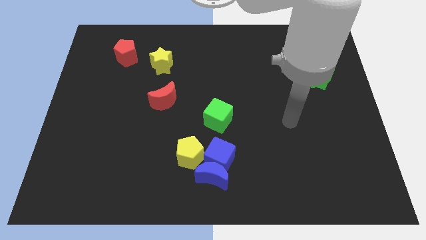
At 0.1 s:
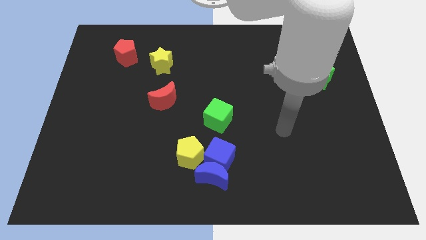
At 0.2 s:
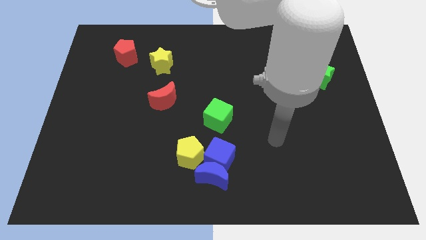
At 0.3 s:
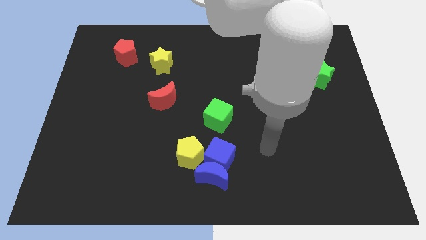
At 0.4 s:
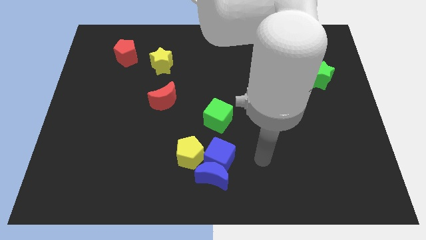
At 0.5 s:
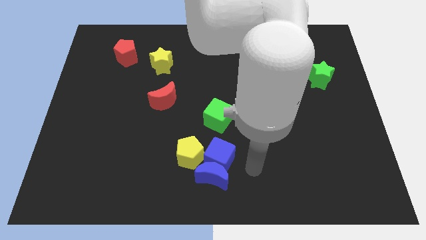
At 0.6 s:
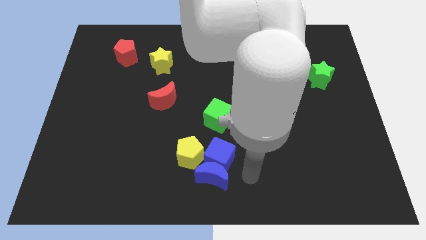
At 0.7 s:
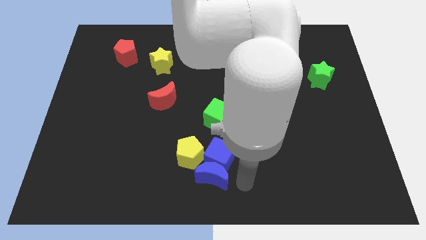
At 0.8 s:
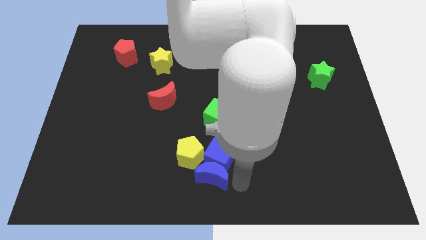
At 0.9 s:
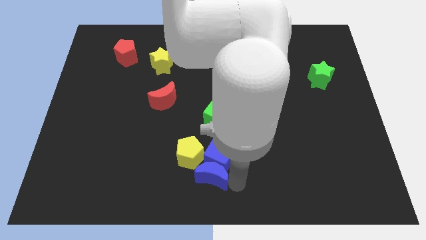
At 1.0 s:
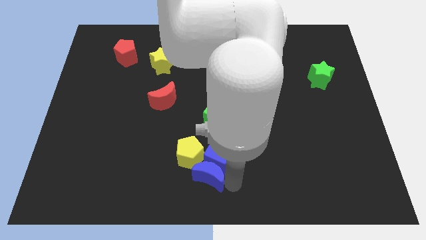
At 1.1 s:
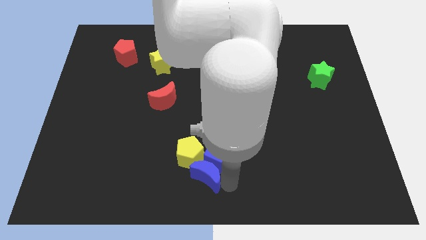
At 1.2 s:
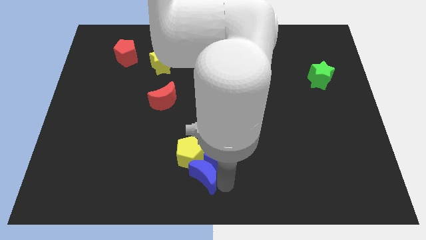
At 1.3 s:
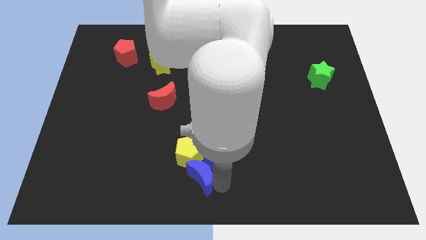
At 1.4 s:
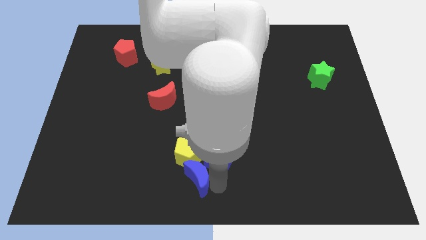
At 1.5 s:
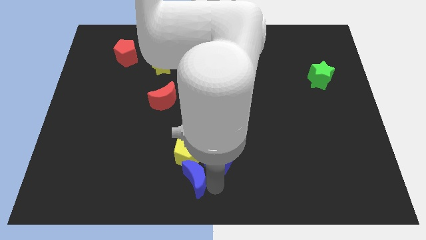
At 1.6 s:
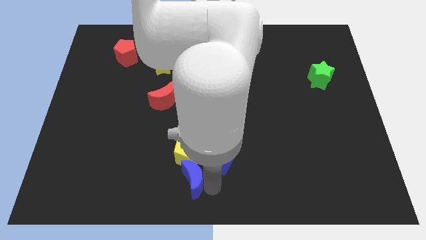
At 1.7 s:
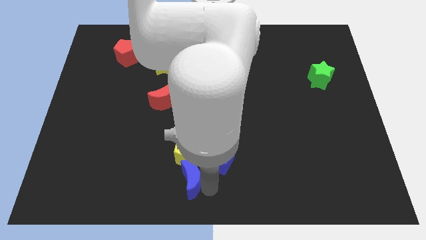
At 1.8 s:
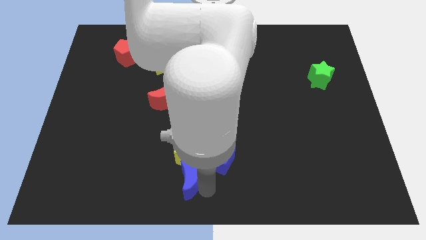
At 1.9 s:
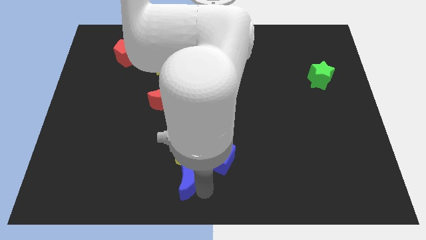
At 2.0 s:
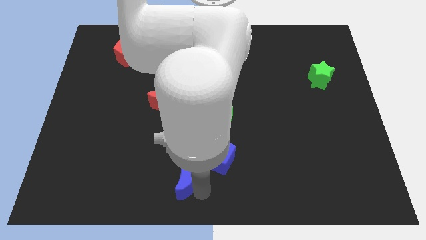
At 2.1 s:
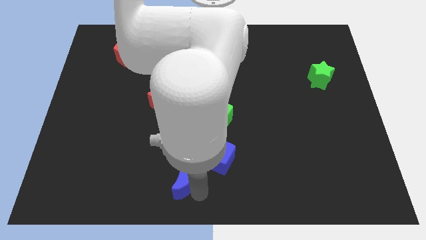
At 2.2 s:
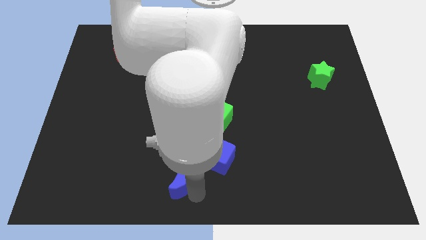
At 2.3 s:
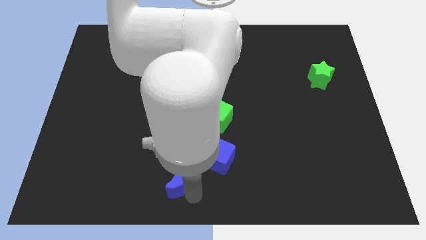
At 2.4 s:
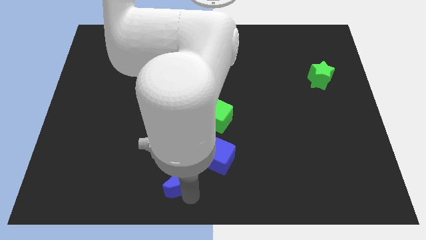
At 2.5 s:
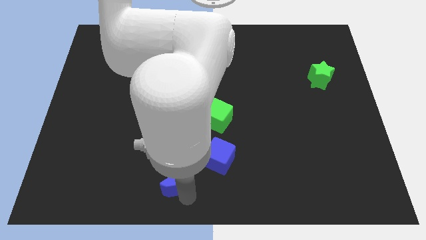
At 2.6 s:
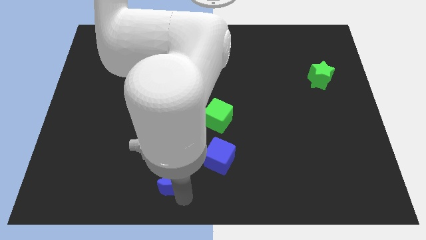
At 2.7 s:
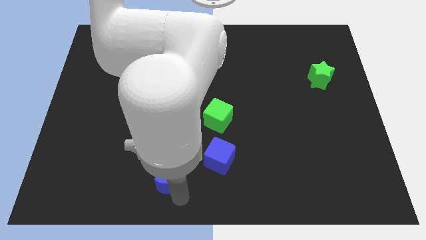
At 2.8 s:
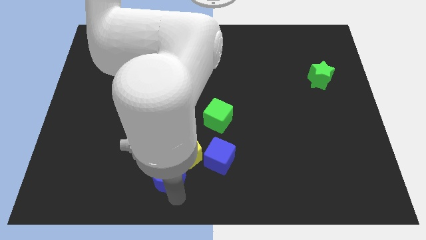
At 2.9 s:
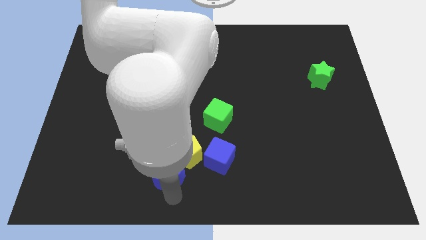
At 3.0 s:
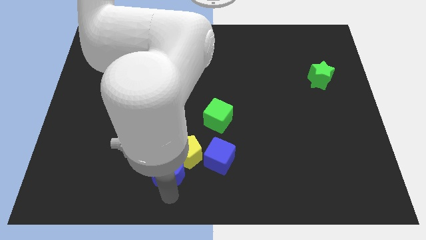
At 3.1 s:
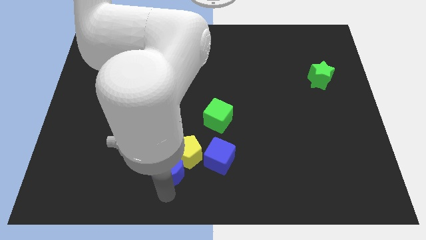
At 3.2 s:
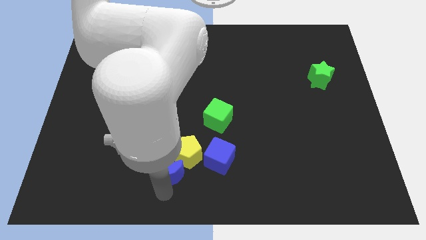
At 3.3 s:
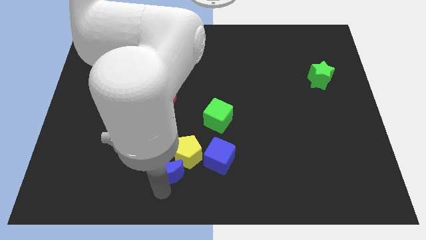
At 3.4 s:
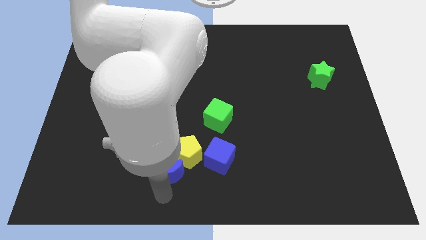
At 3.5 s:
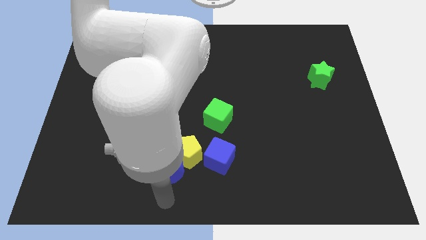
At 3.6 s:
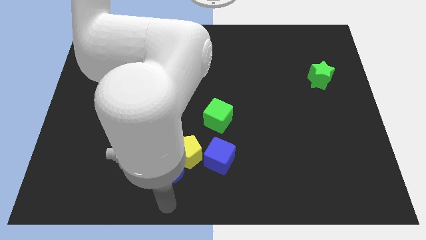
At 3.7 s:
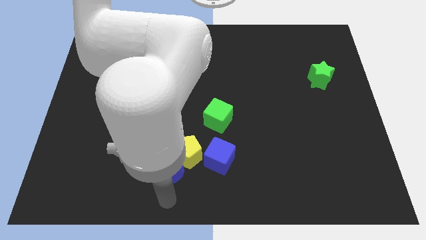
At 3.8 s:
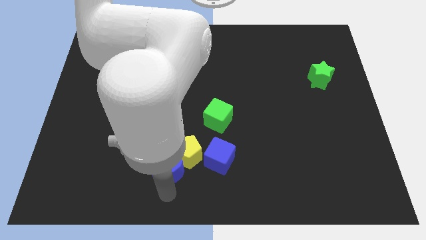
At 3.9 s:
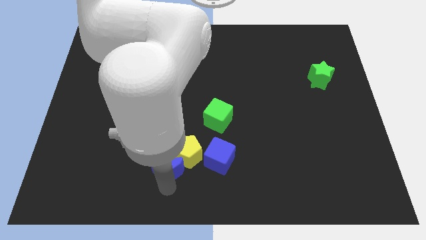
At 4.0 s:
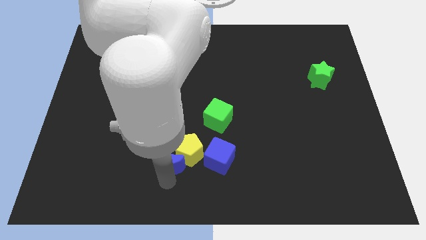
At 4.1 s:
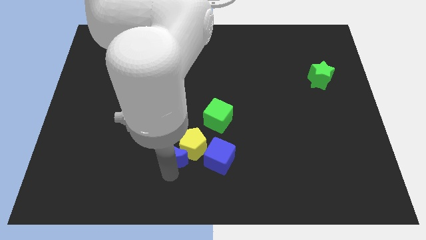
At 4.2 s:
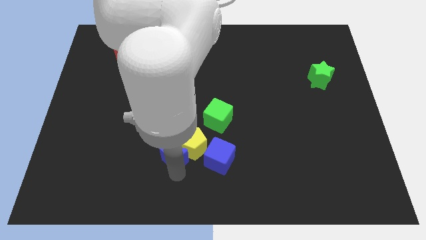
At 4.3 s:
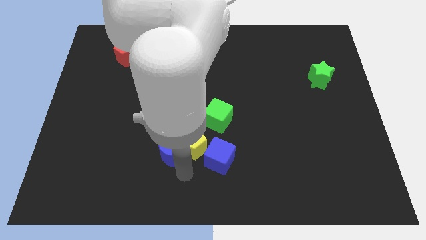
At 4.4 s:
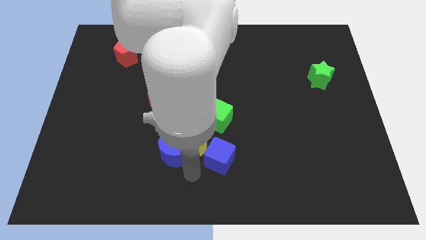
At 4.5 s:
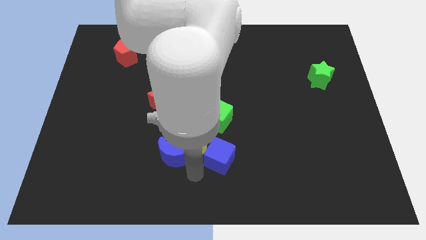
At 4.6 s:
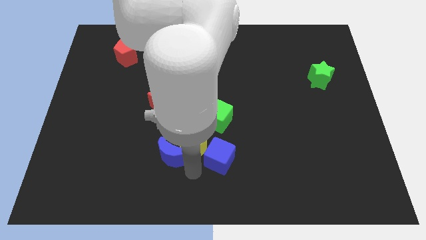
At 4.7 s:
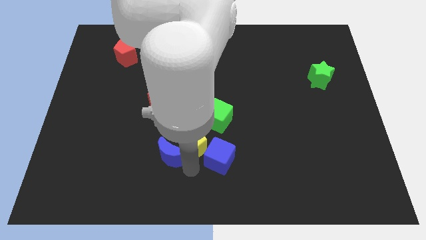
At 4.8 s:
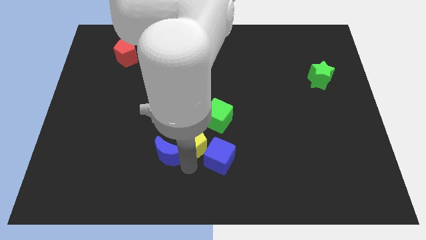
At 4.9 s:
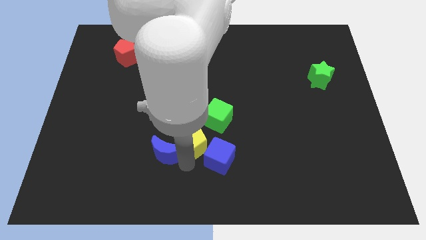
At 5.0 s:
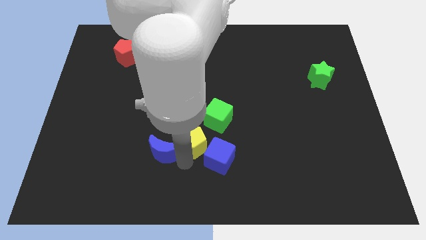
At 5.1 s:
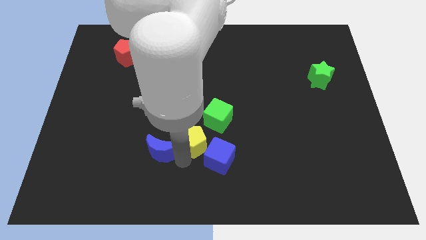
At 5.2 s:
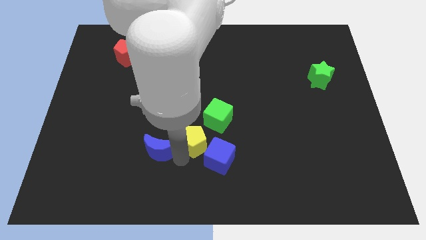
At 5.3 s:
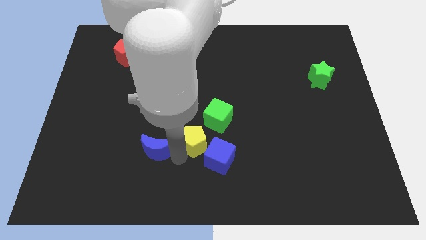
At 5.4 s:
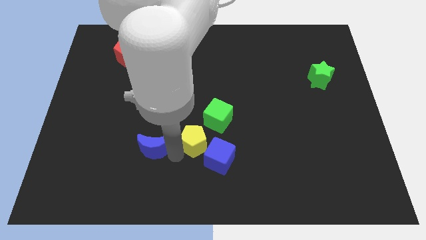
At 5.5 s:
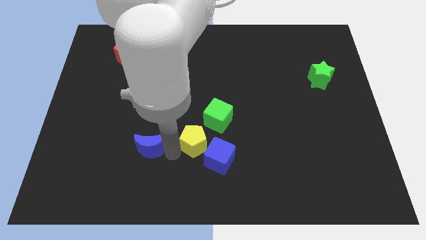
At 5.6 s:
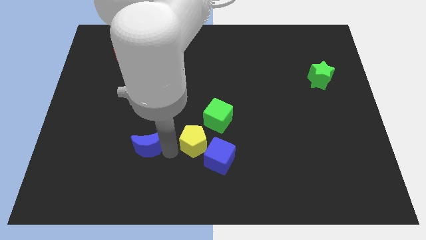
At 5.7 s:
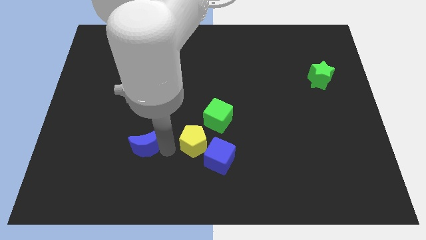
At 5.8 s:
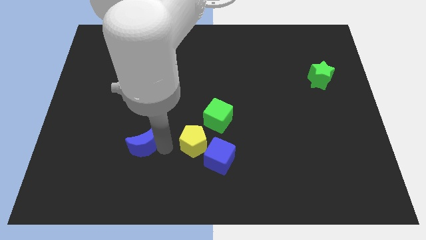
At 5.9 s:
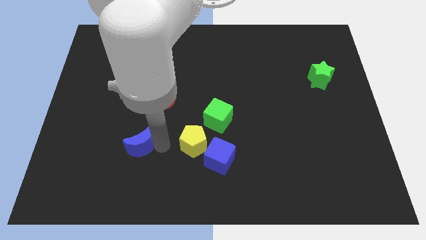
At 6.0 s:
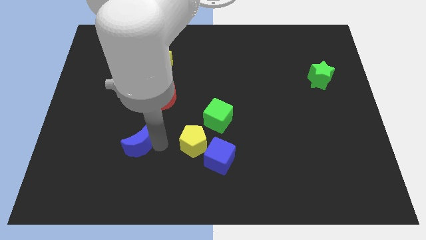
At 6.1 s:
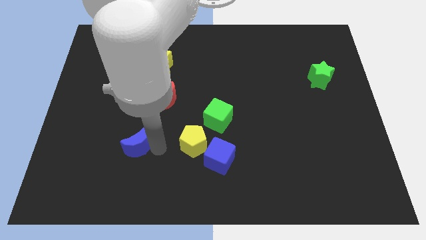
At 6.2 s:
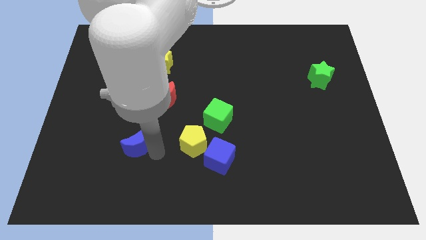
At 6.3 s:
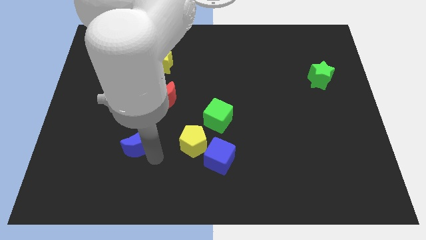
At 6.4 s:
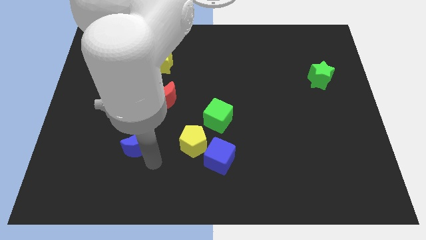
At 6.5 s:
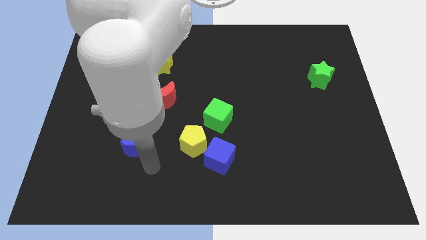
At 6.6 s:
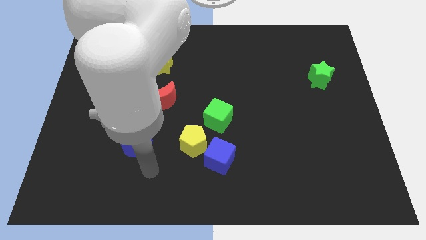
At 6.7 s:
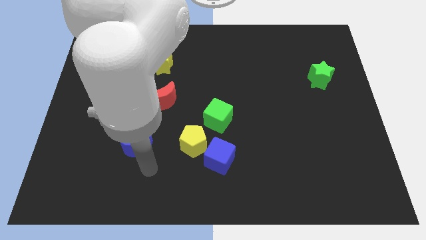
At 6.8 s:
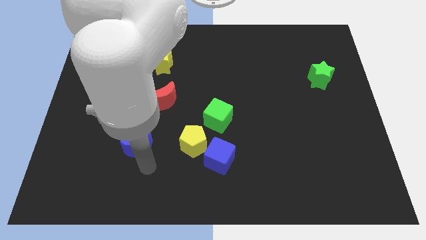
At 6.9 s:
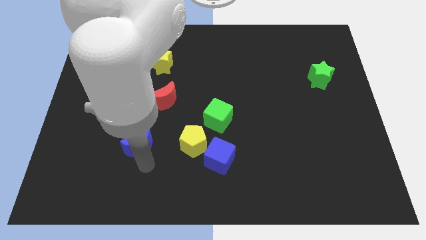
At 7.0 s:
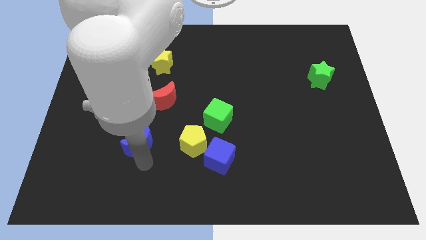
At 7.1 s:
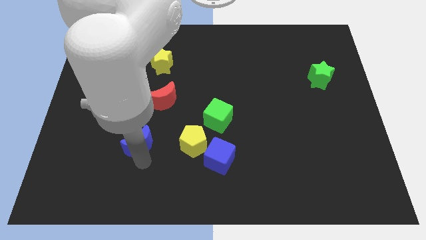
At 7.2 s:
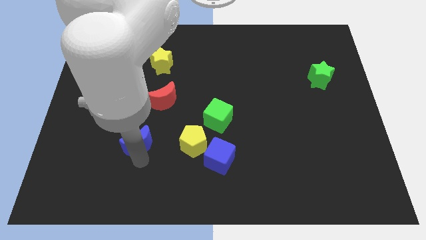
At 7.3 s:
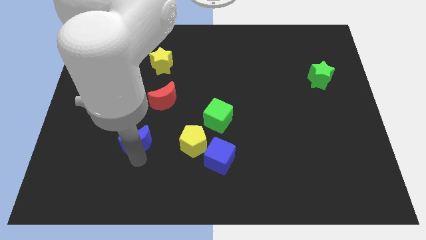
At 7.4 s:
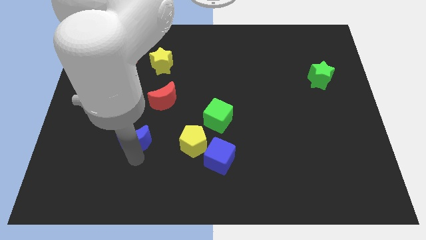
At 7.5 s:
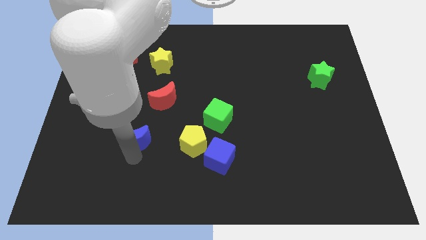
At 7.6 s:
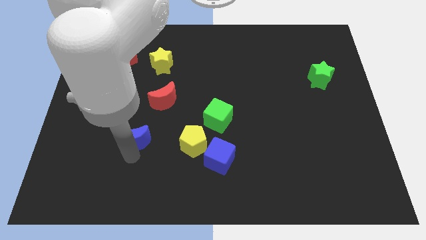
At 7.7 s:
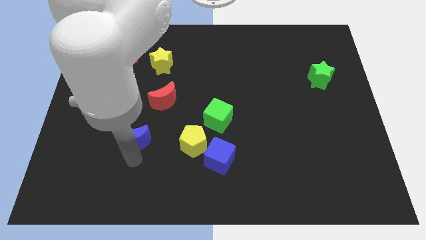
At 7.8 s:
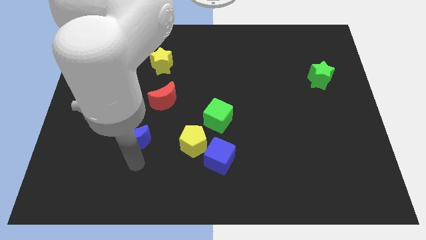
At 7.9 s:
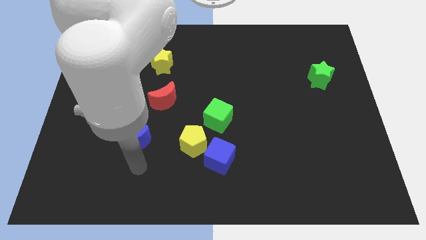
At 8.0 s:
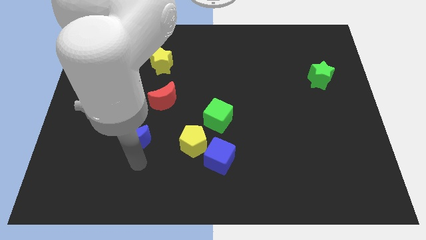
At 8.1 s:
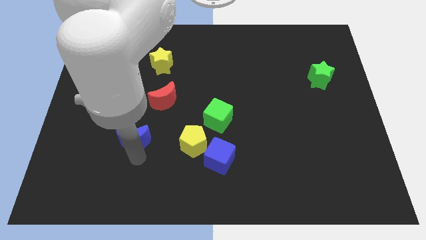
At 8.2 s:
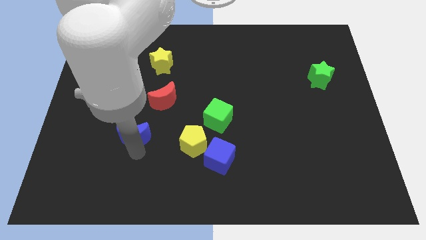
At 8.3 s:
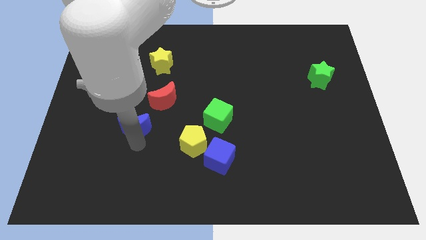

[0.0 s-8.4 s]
move the blue moon upwards and left
